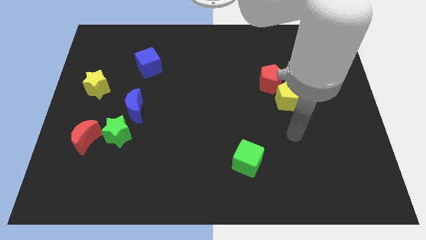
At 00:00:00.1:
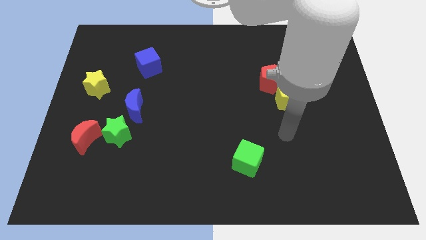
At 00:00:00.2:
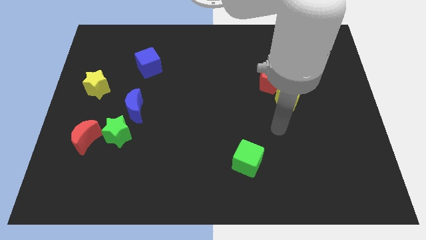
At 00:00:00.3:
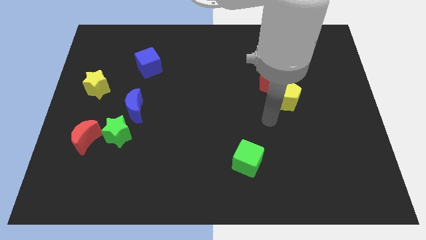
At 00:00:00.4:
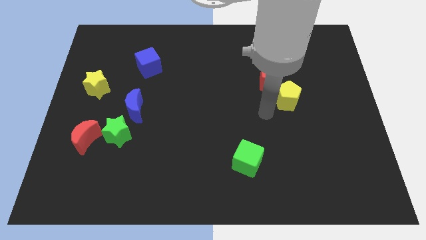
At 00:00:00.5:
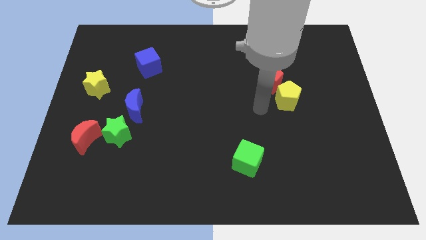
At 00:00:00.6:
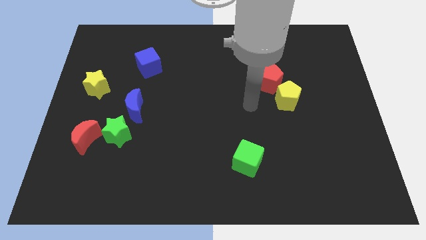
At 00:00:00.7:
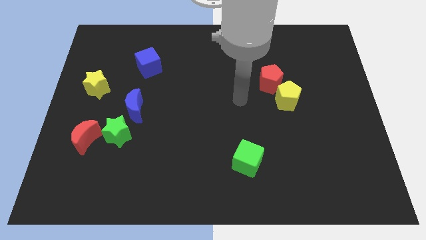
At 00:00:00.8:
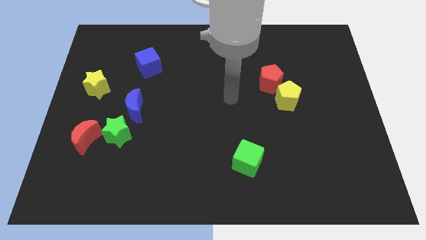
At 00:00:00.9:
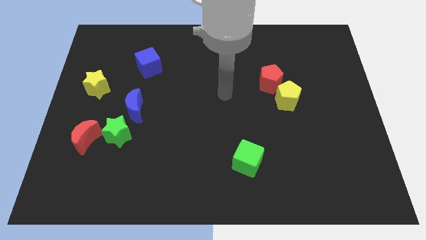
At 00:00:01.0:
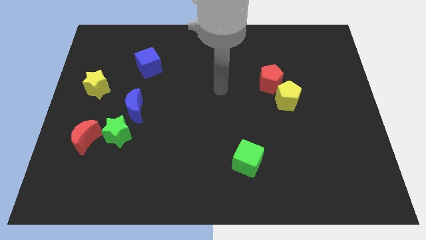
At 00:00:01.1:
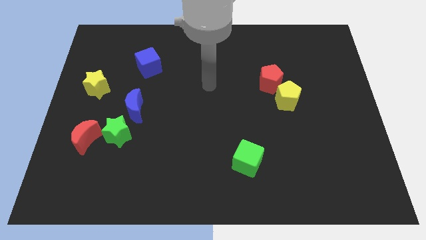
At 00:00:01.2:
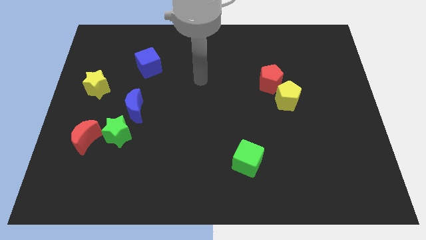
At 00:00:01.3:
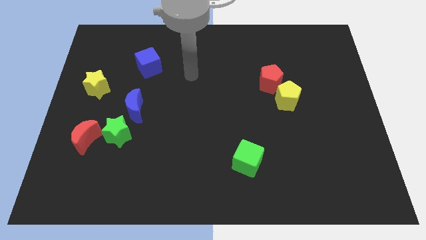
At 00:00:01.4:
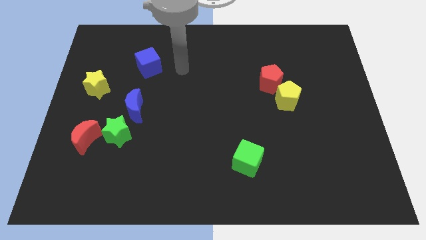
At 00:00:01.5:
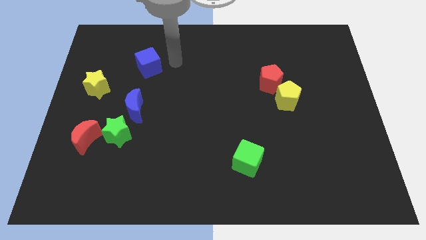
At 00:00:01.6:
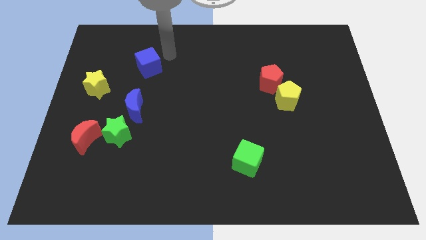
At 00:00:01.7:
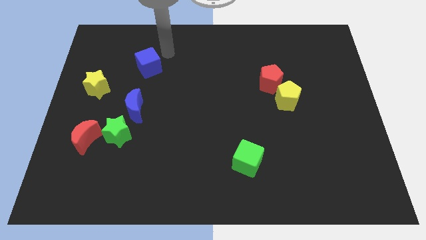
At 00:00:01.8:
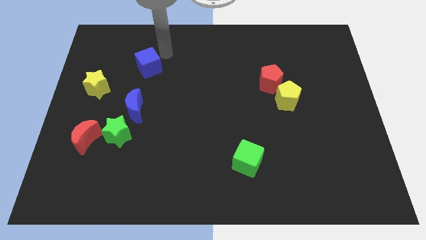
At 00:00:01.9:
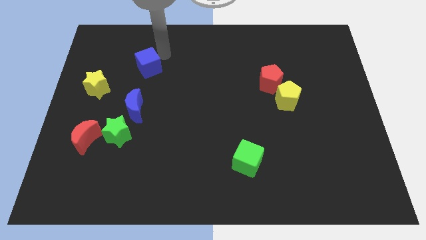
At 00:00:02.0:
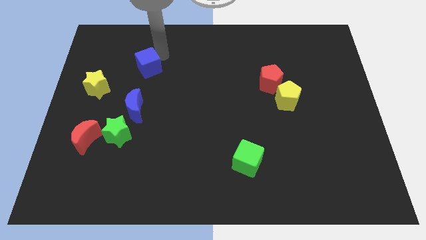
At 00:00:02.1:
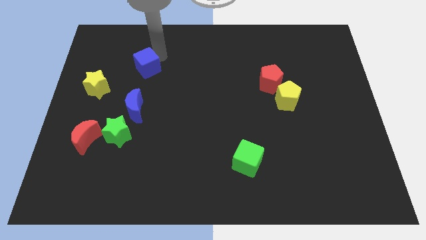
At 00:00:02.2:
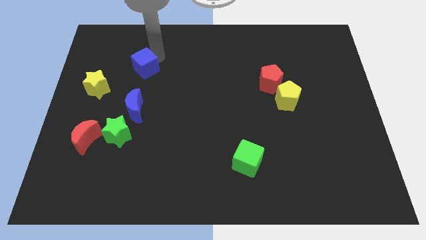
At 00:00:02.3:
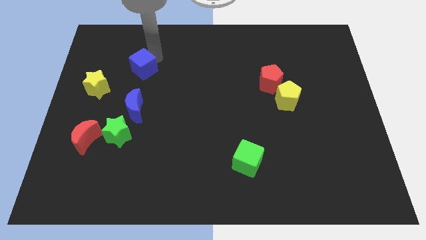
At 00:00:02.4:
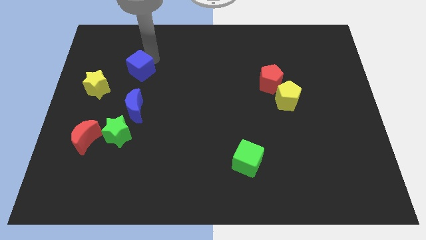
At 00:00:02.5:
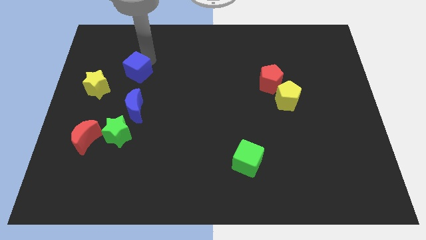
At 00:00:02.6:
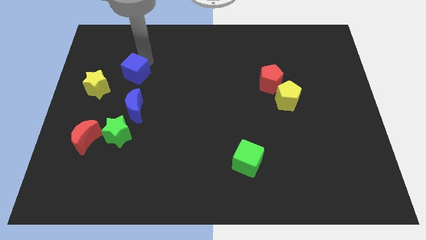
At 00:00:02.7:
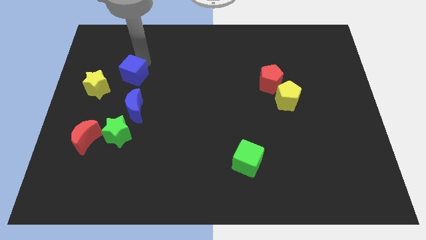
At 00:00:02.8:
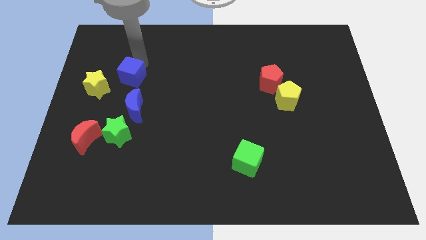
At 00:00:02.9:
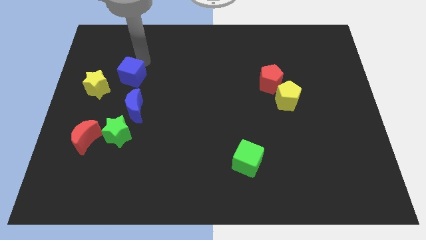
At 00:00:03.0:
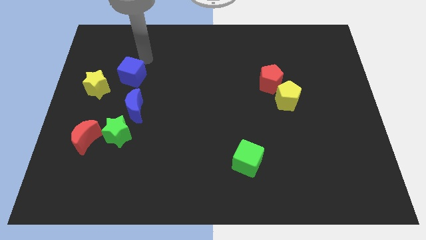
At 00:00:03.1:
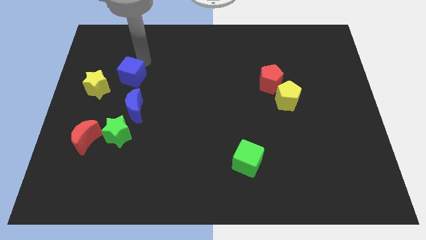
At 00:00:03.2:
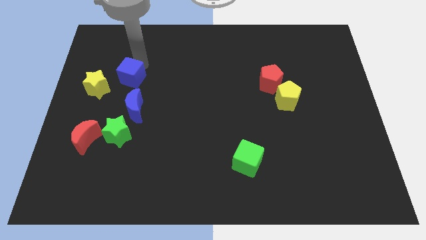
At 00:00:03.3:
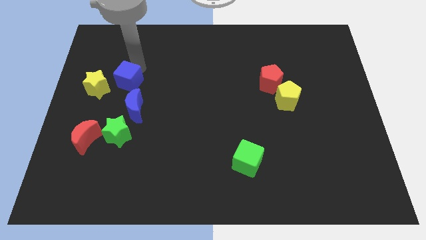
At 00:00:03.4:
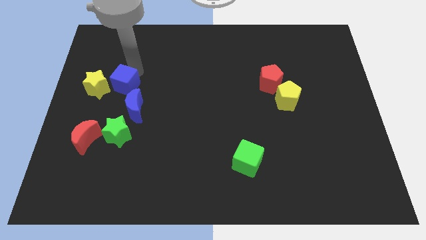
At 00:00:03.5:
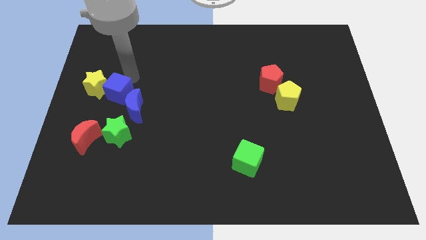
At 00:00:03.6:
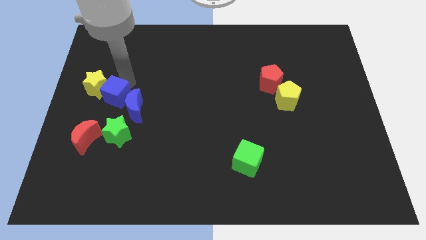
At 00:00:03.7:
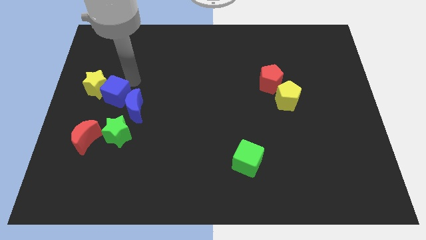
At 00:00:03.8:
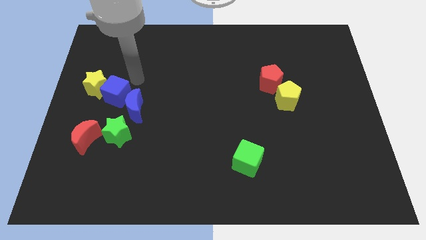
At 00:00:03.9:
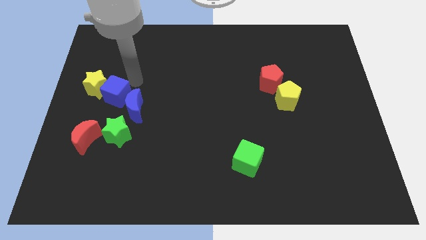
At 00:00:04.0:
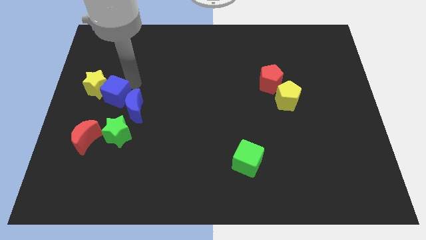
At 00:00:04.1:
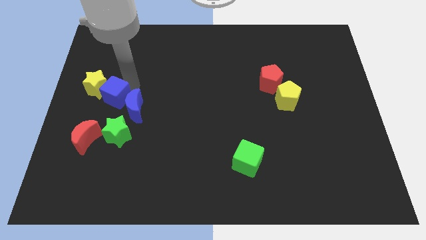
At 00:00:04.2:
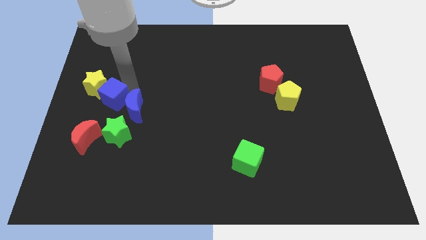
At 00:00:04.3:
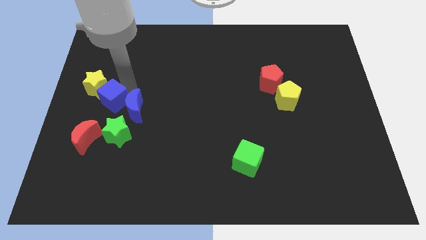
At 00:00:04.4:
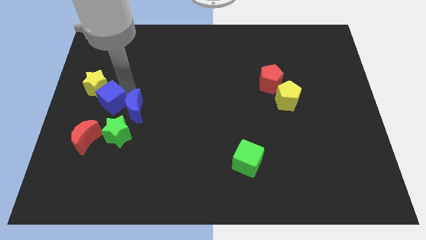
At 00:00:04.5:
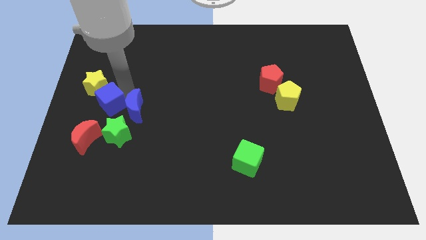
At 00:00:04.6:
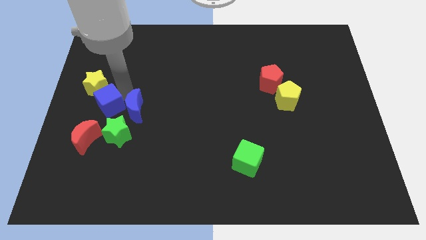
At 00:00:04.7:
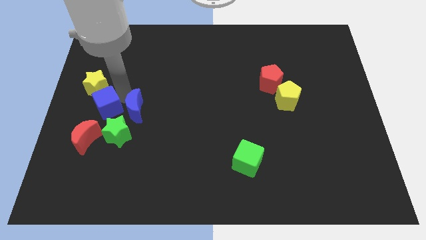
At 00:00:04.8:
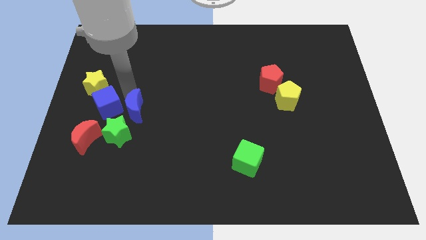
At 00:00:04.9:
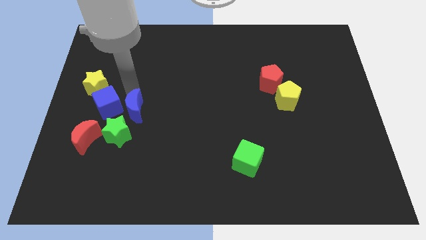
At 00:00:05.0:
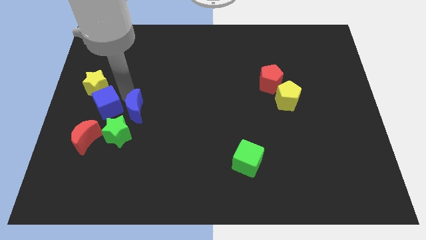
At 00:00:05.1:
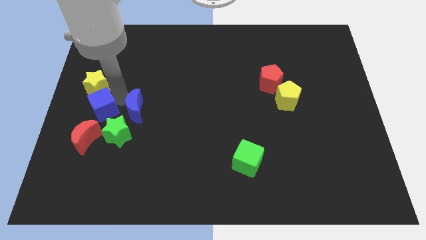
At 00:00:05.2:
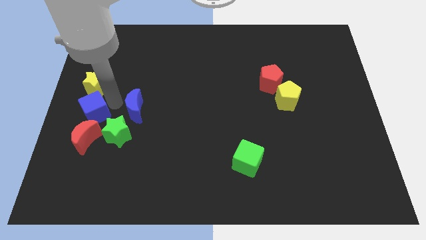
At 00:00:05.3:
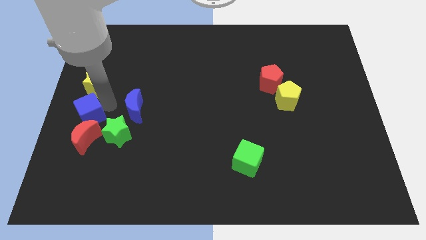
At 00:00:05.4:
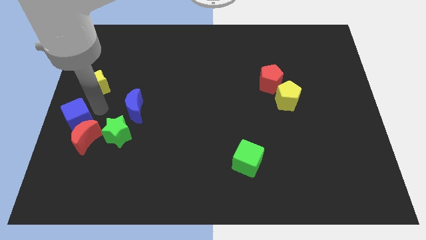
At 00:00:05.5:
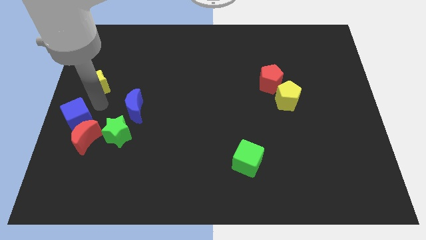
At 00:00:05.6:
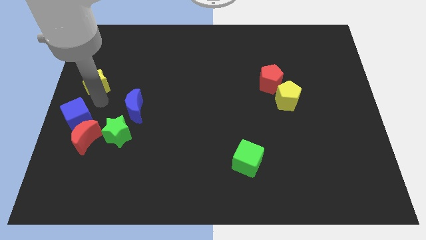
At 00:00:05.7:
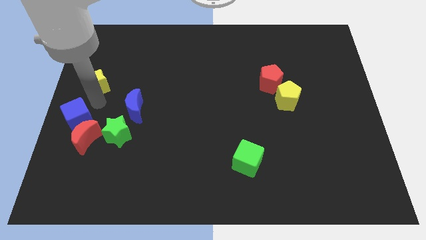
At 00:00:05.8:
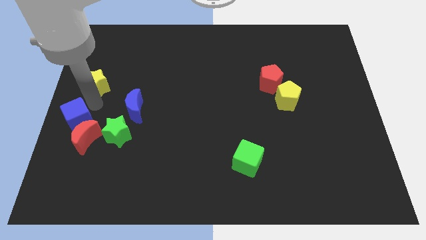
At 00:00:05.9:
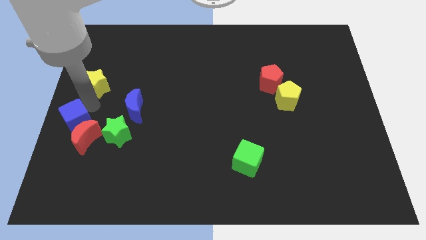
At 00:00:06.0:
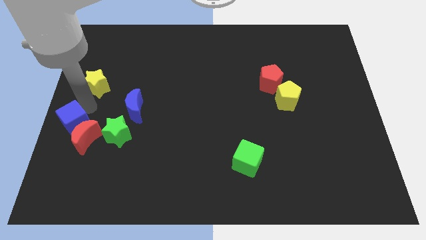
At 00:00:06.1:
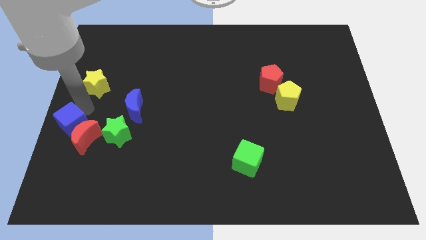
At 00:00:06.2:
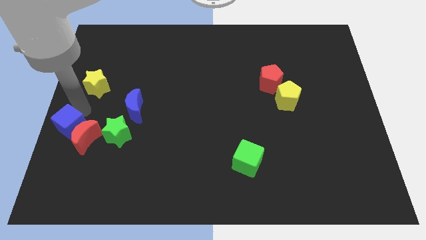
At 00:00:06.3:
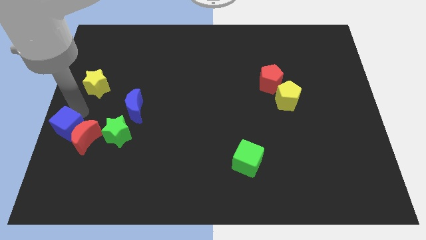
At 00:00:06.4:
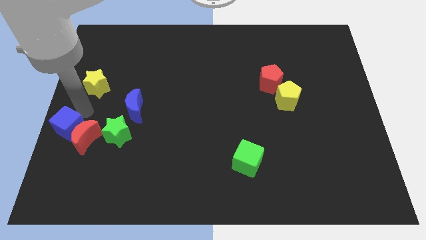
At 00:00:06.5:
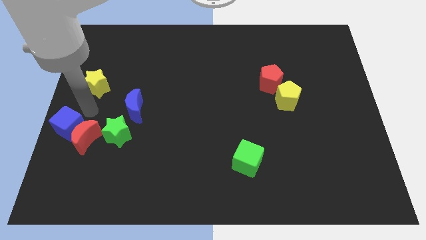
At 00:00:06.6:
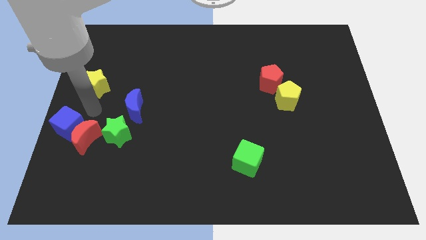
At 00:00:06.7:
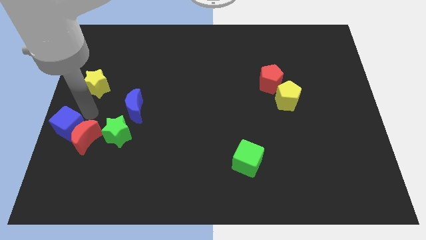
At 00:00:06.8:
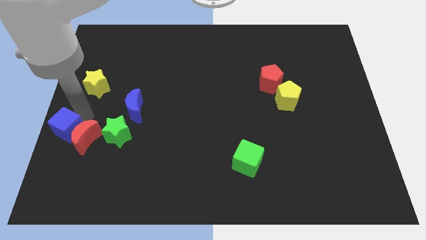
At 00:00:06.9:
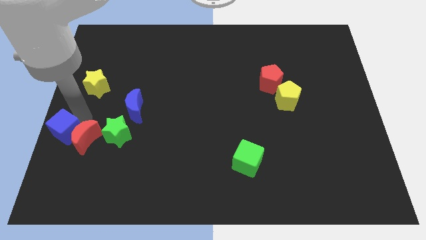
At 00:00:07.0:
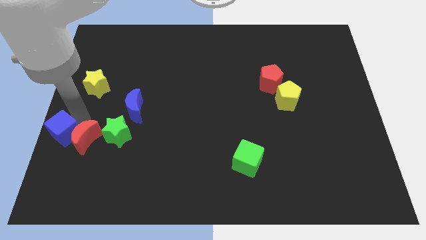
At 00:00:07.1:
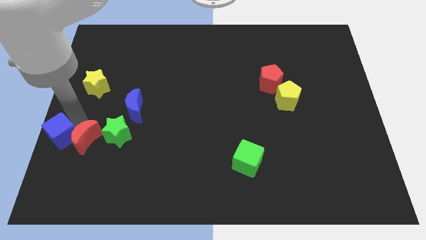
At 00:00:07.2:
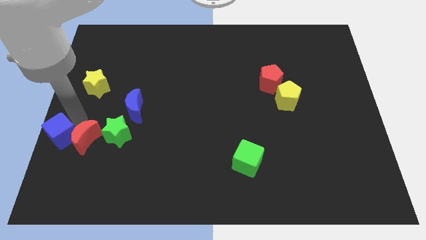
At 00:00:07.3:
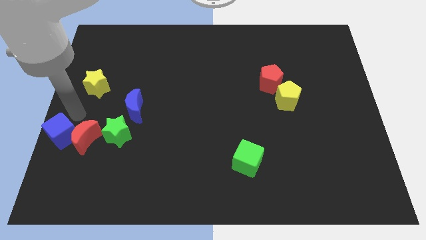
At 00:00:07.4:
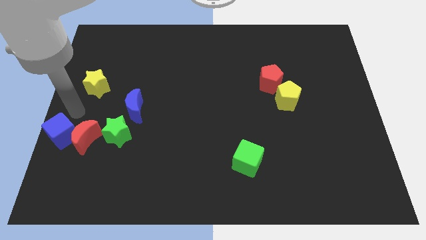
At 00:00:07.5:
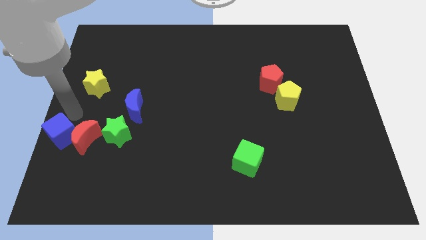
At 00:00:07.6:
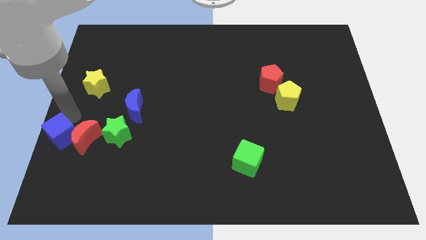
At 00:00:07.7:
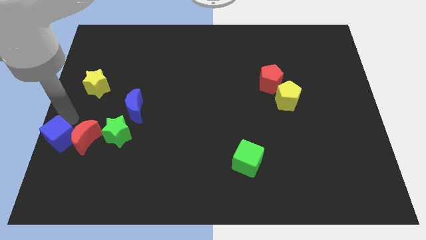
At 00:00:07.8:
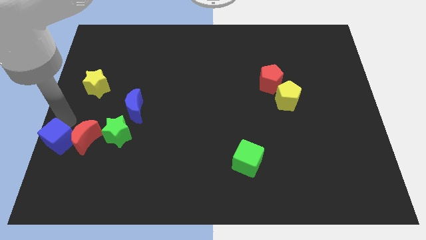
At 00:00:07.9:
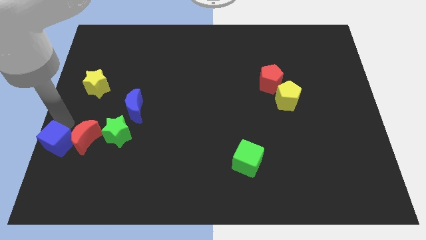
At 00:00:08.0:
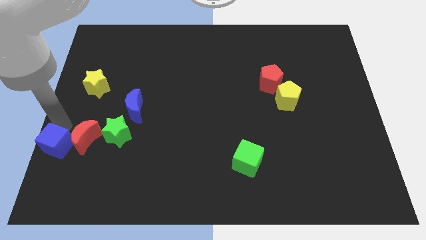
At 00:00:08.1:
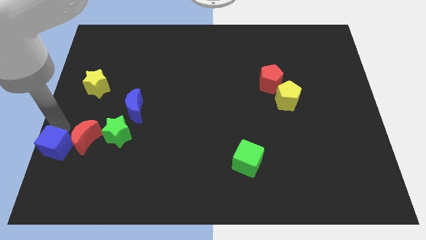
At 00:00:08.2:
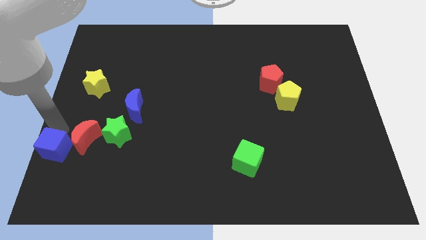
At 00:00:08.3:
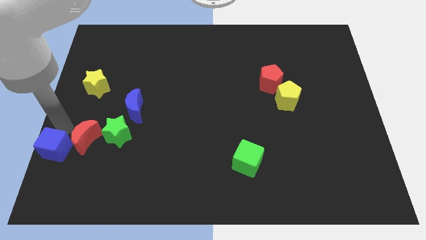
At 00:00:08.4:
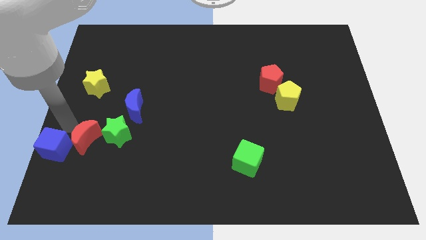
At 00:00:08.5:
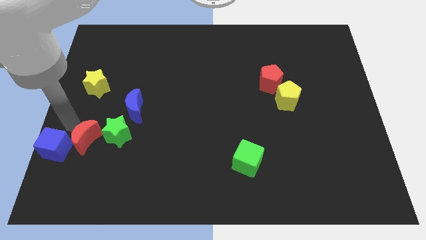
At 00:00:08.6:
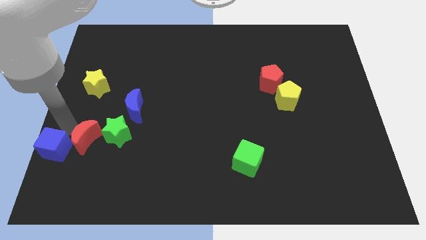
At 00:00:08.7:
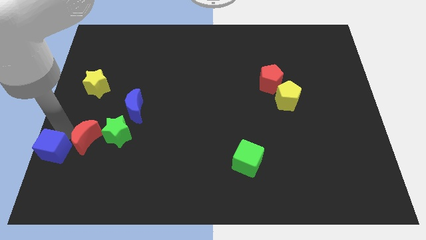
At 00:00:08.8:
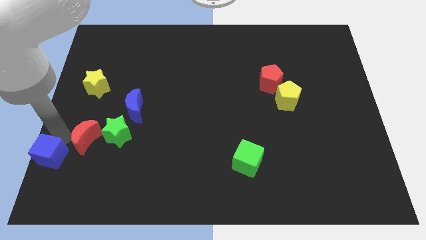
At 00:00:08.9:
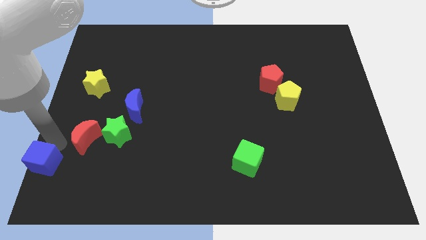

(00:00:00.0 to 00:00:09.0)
put the blue cube to the bottom left corner
